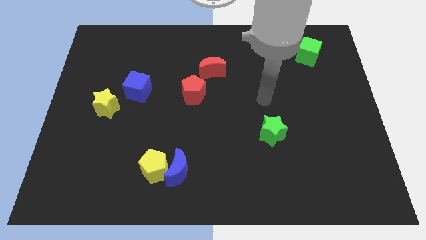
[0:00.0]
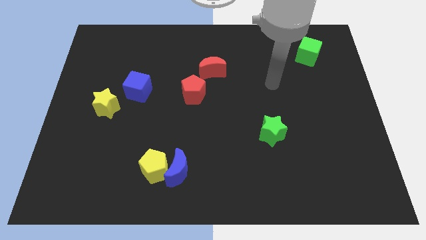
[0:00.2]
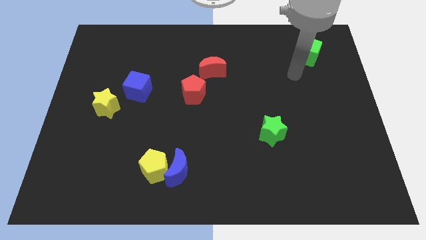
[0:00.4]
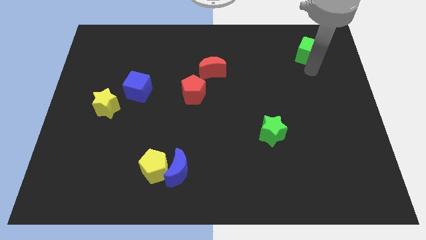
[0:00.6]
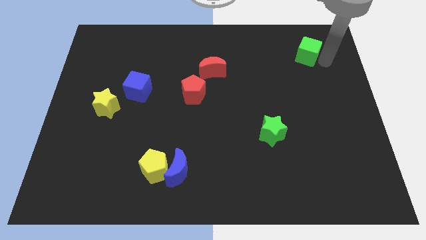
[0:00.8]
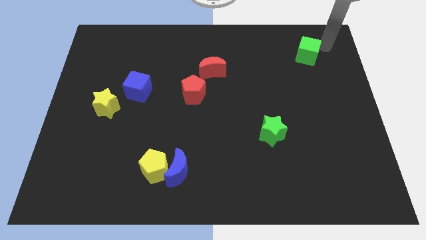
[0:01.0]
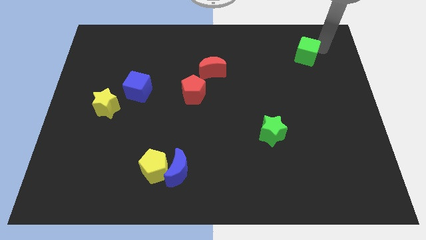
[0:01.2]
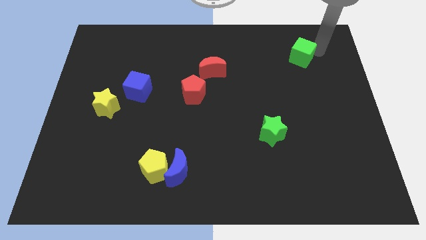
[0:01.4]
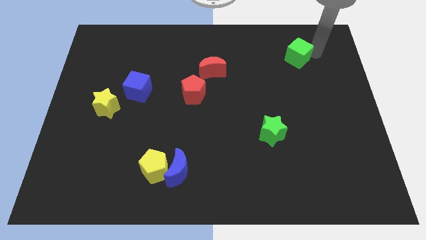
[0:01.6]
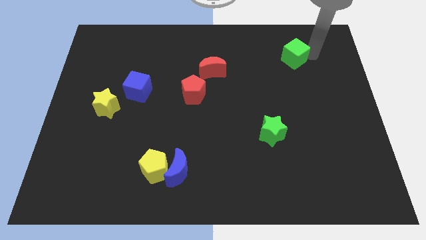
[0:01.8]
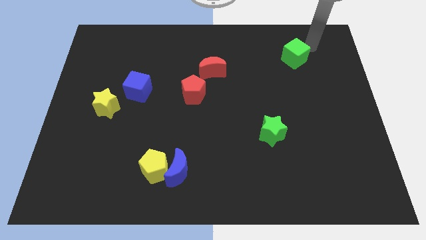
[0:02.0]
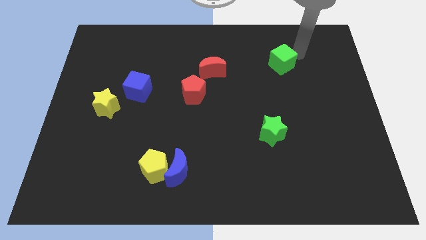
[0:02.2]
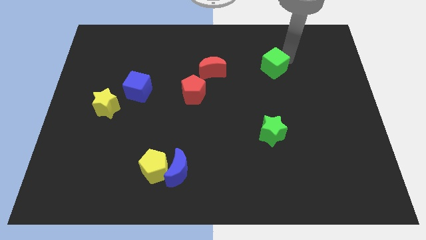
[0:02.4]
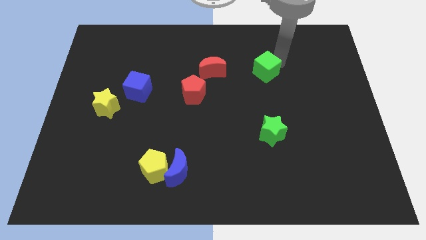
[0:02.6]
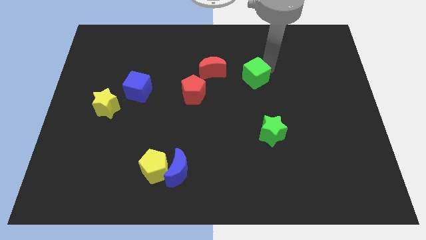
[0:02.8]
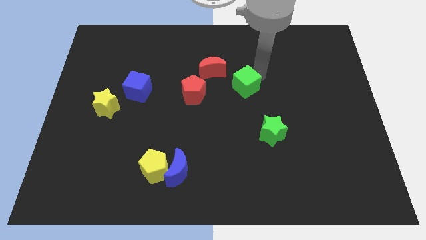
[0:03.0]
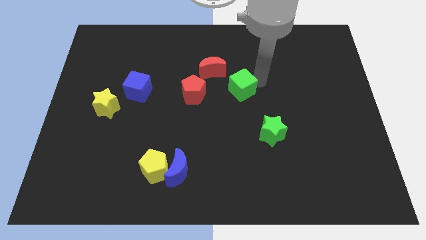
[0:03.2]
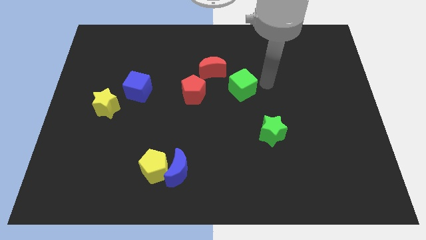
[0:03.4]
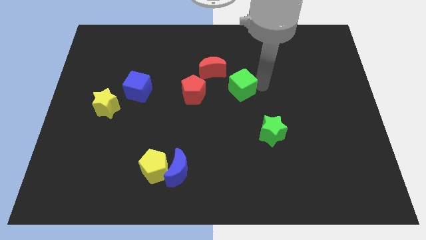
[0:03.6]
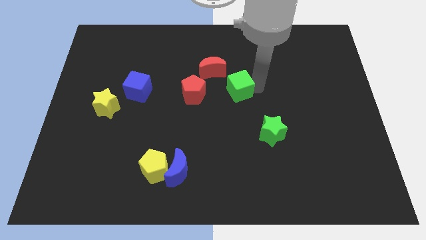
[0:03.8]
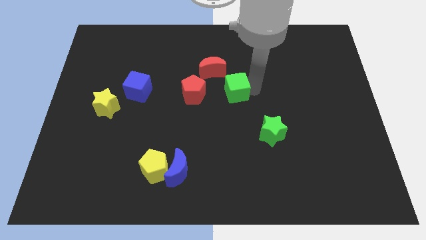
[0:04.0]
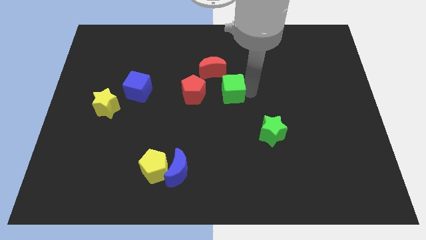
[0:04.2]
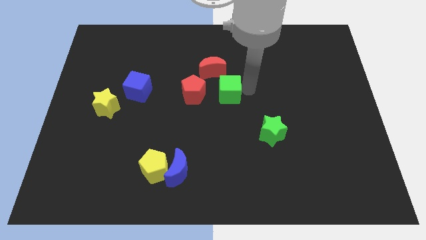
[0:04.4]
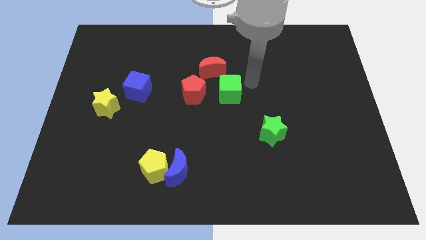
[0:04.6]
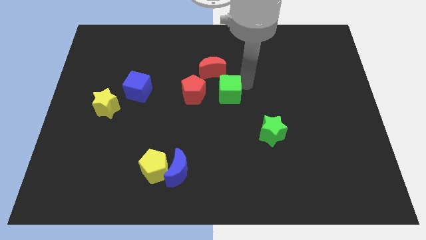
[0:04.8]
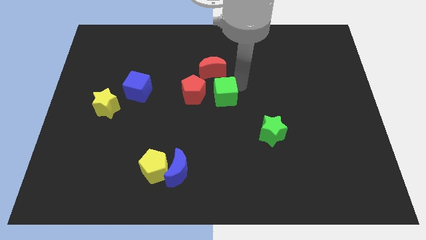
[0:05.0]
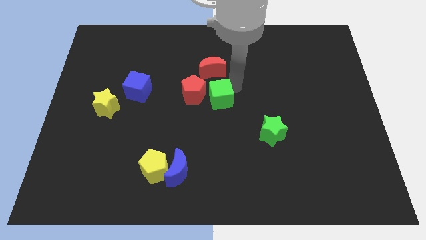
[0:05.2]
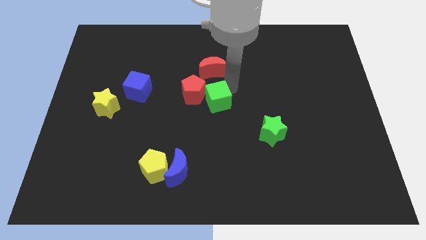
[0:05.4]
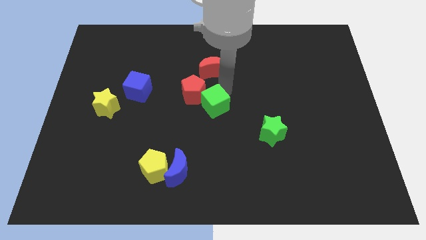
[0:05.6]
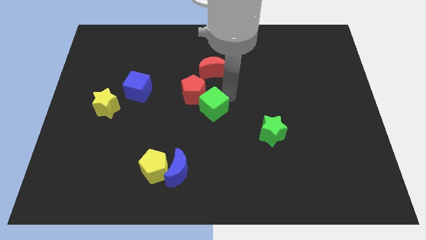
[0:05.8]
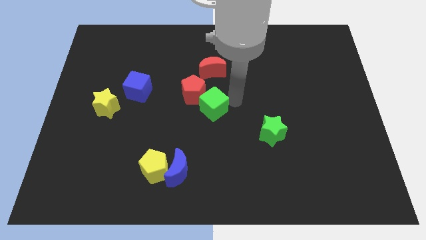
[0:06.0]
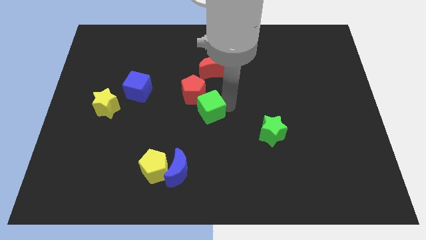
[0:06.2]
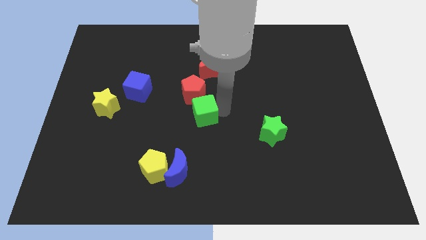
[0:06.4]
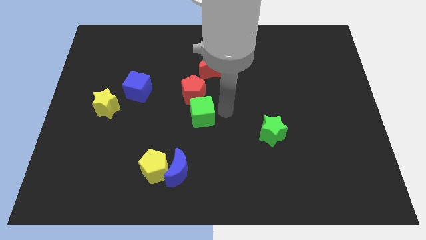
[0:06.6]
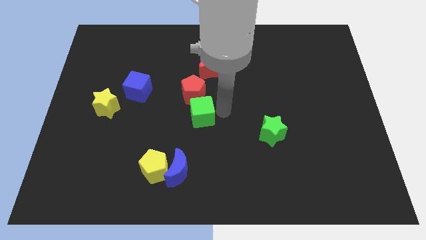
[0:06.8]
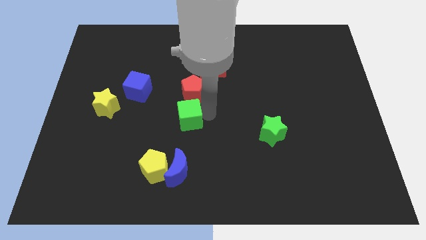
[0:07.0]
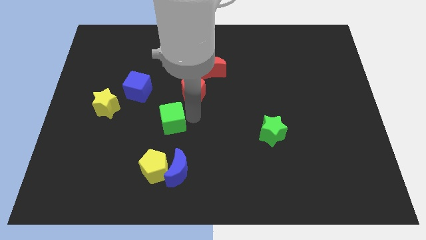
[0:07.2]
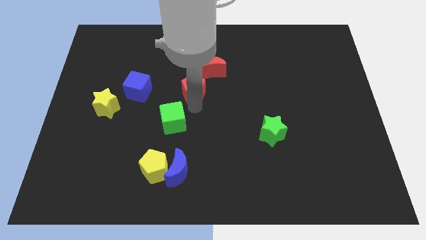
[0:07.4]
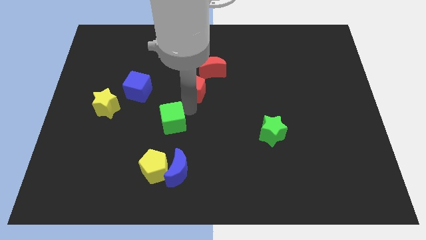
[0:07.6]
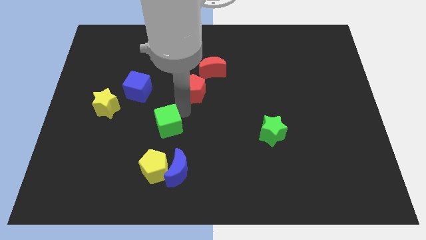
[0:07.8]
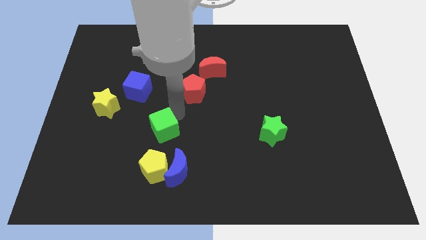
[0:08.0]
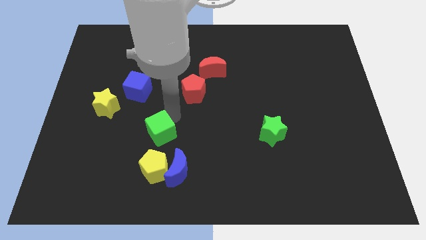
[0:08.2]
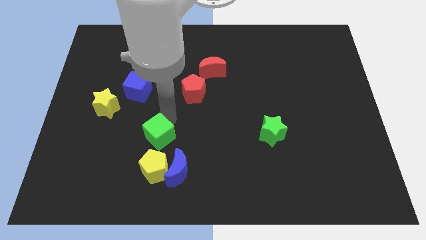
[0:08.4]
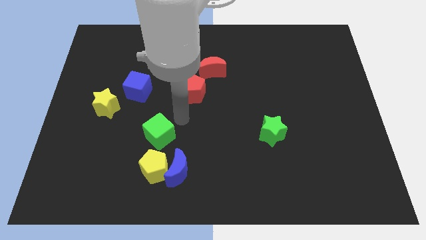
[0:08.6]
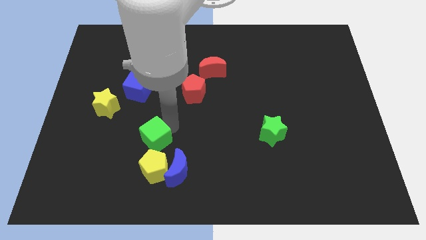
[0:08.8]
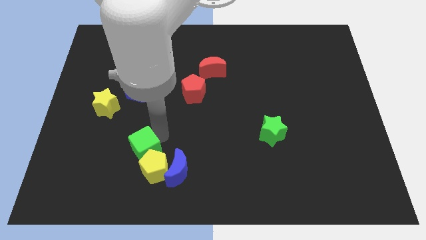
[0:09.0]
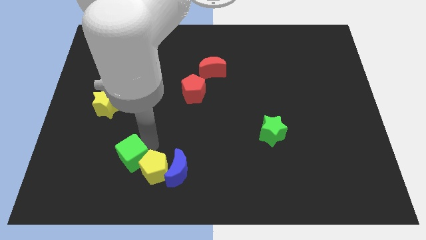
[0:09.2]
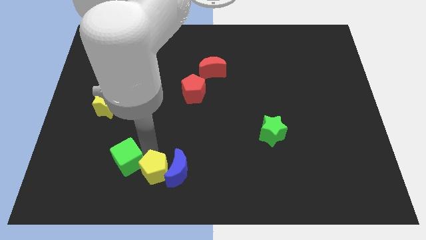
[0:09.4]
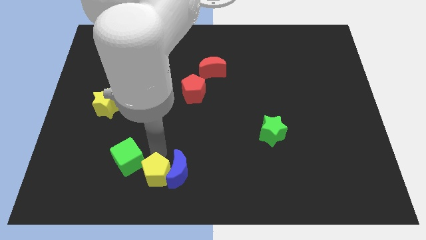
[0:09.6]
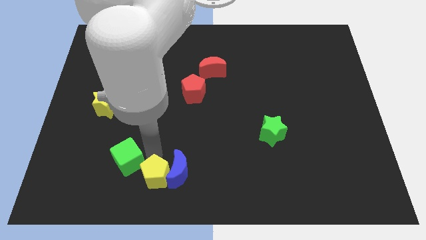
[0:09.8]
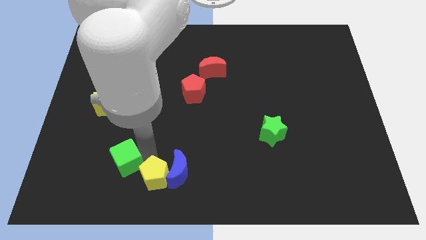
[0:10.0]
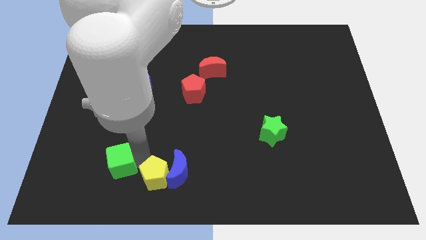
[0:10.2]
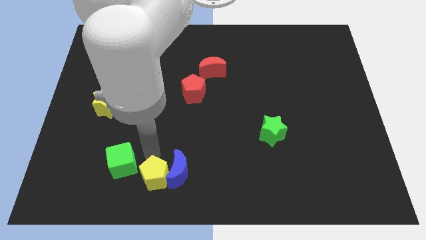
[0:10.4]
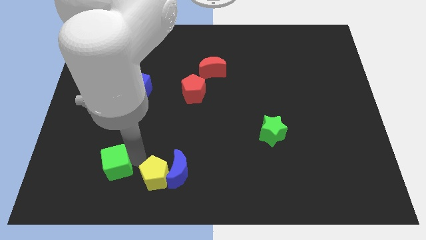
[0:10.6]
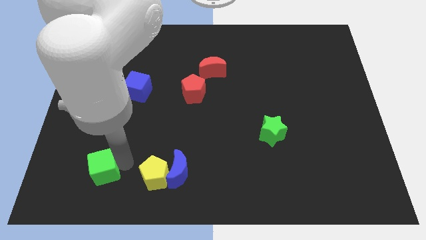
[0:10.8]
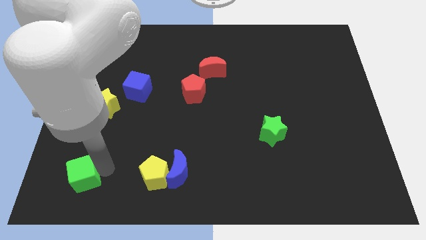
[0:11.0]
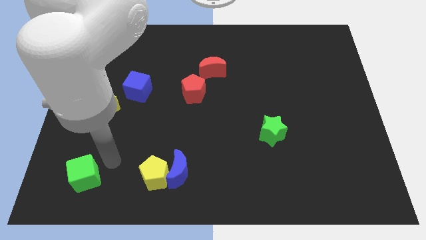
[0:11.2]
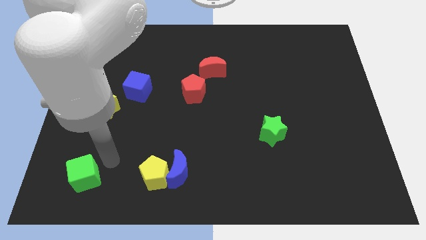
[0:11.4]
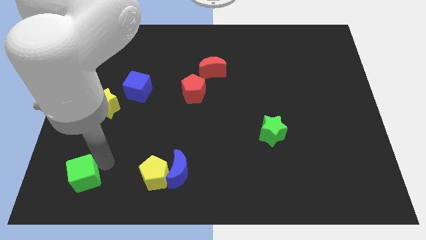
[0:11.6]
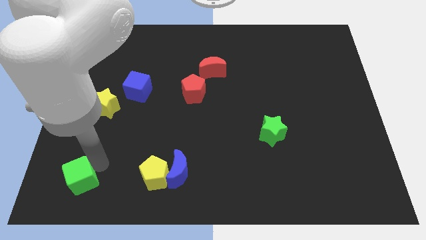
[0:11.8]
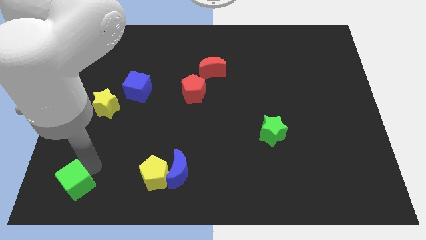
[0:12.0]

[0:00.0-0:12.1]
move the green cube to the bottom left corner
